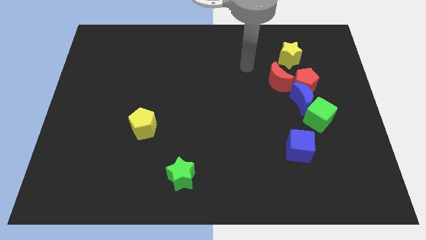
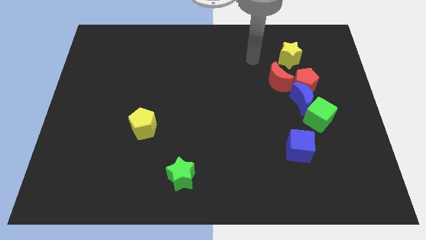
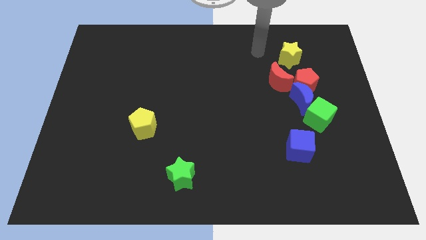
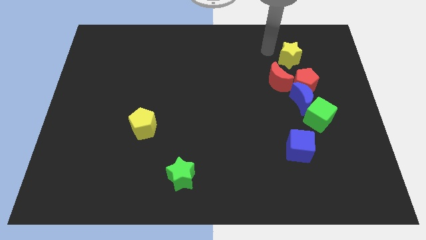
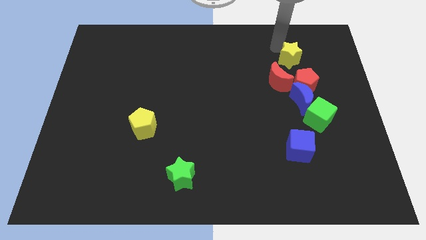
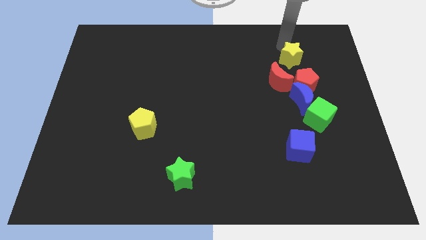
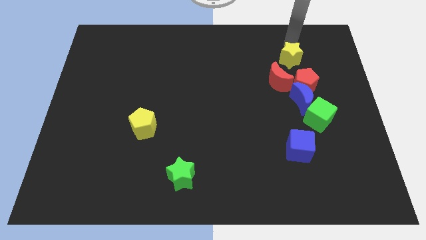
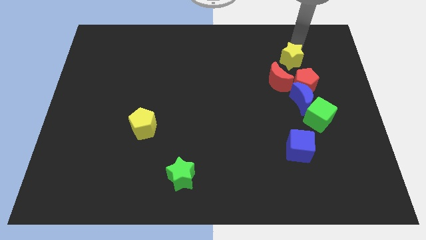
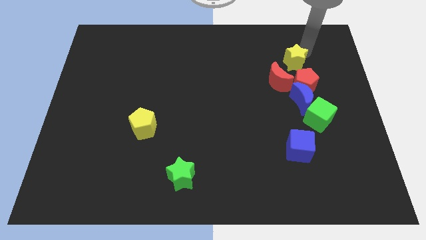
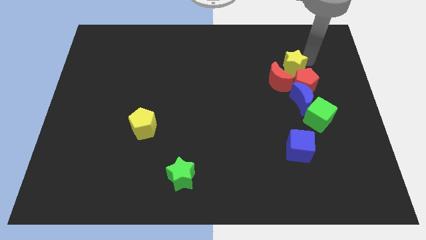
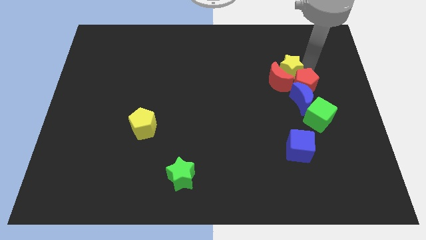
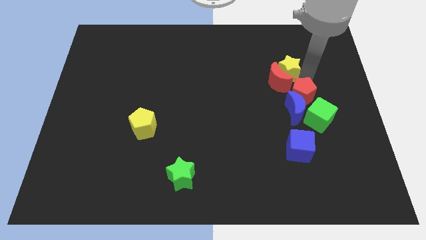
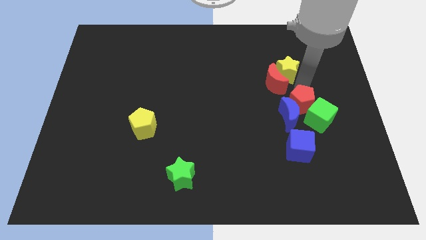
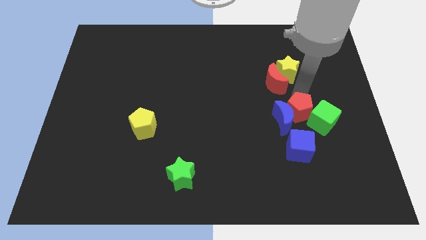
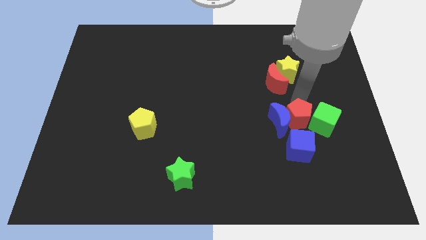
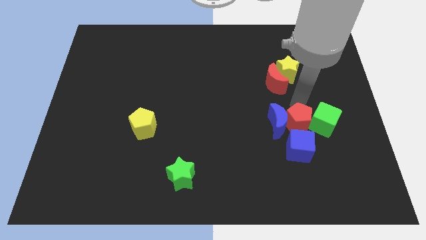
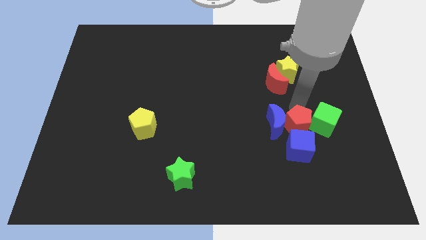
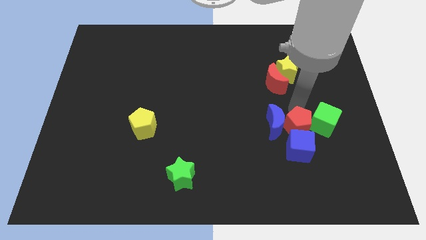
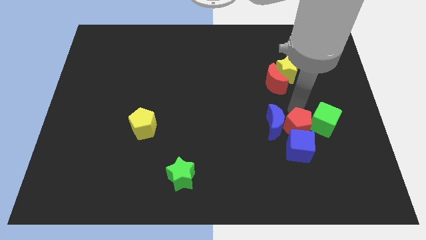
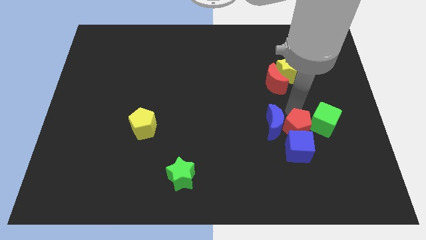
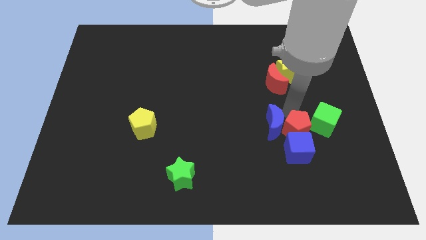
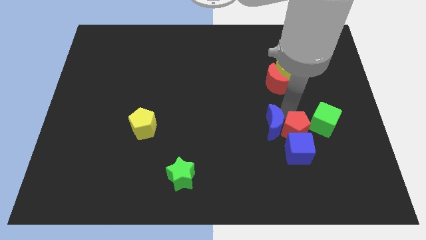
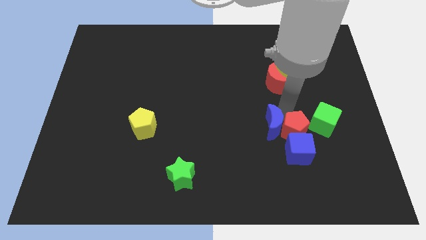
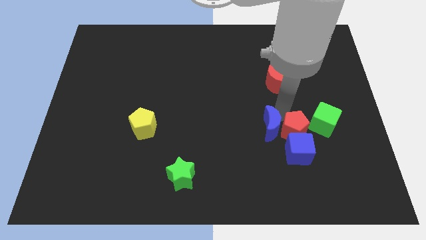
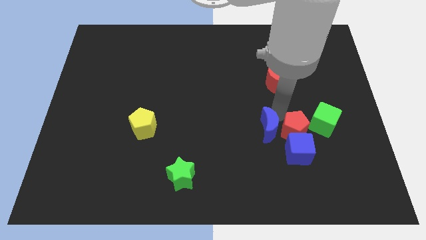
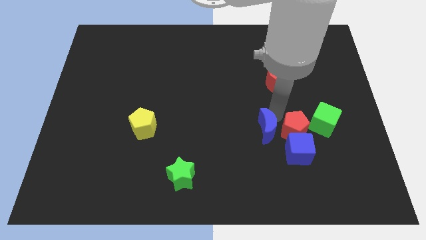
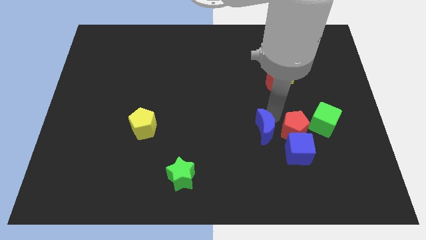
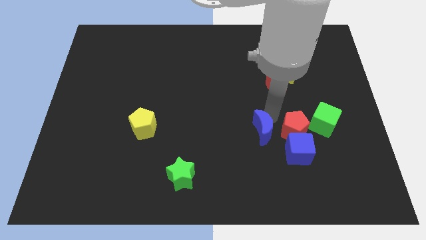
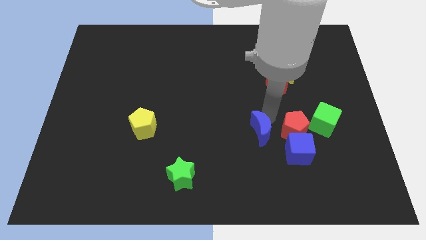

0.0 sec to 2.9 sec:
separate the blue moon from the group

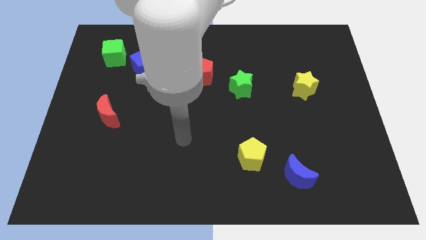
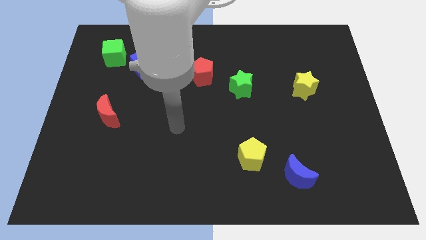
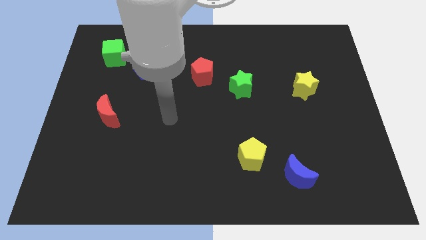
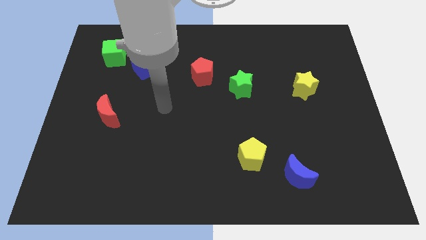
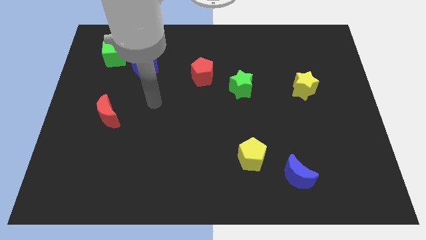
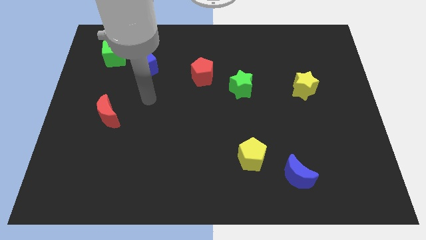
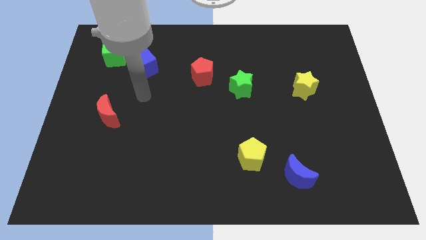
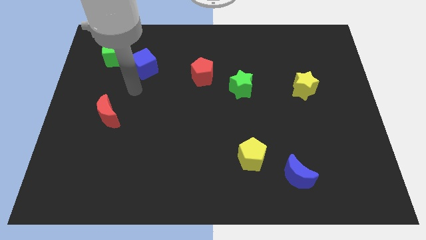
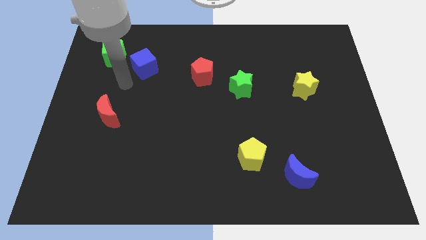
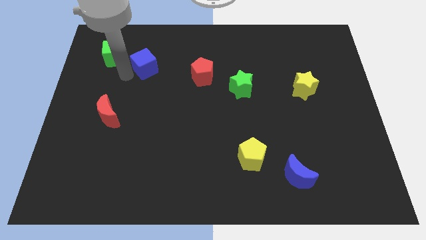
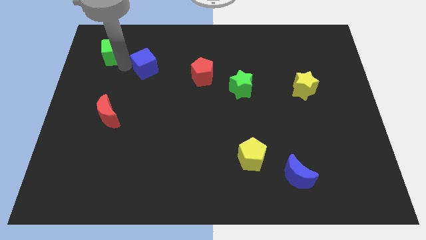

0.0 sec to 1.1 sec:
separate the blue cube from the green cube

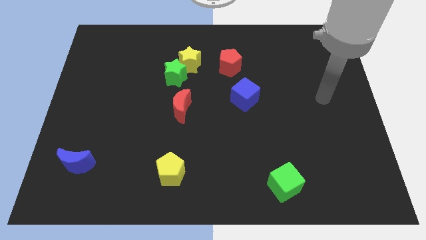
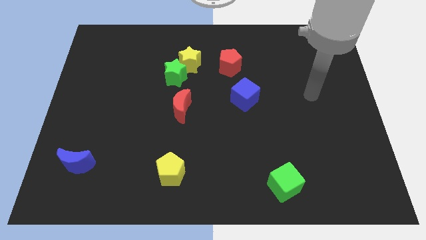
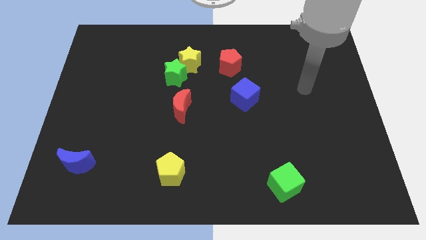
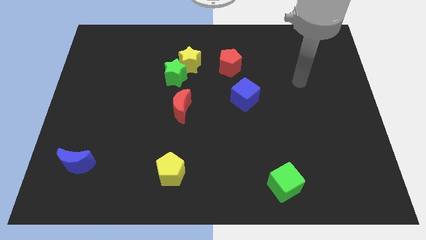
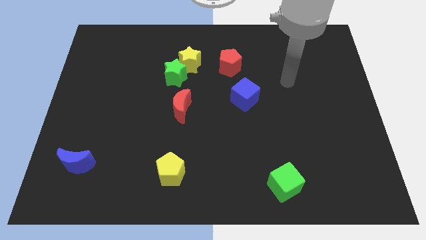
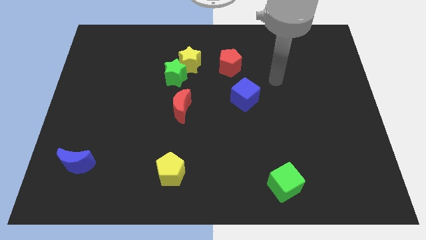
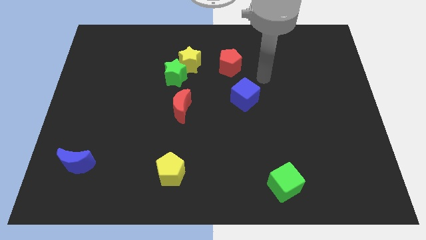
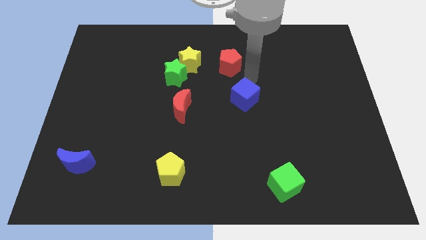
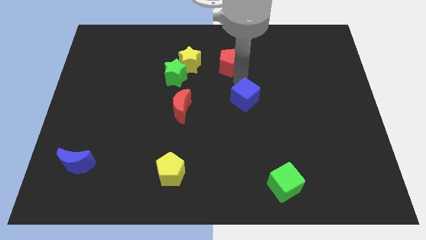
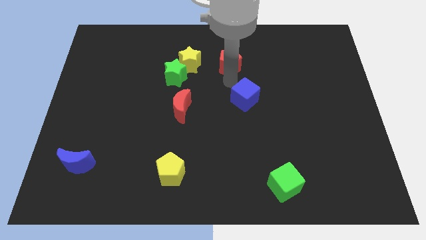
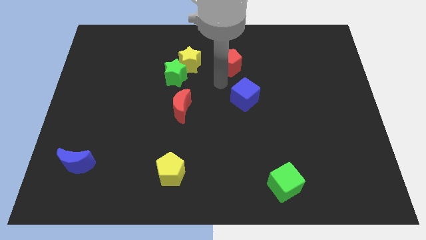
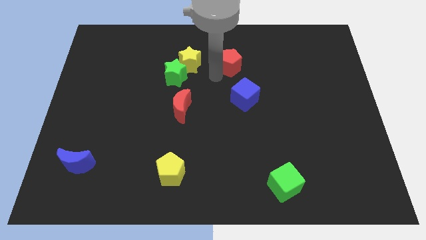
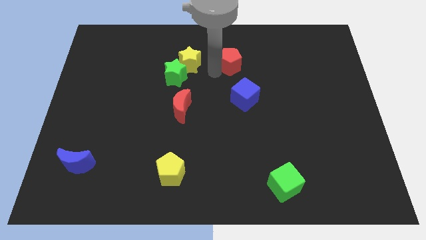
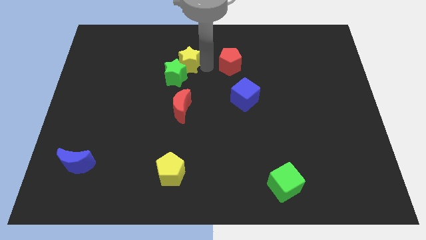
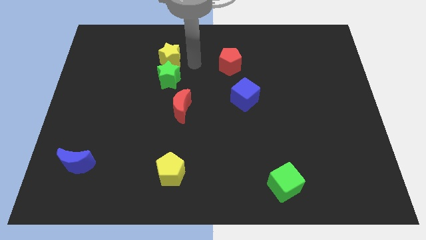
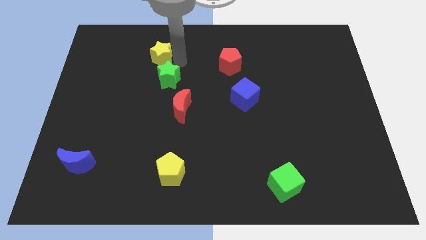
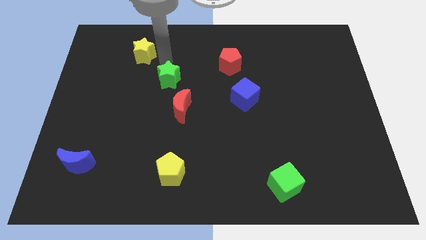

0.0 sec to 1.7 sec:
move the green star away from the yellow star

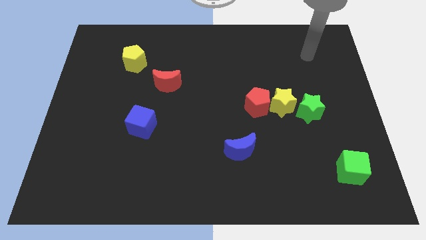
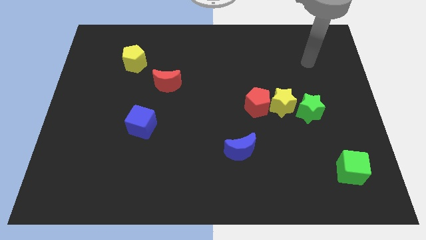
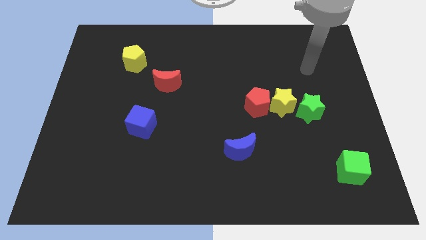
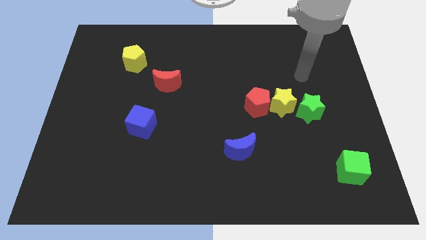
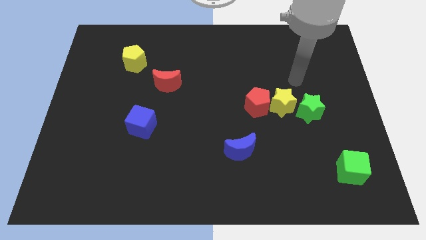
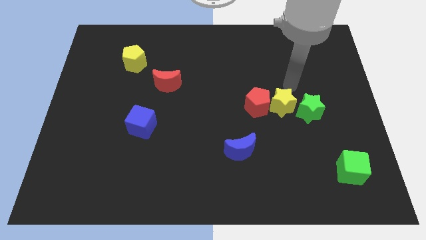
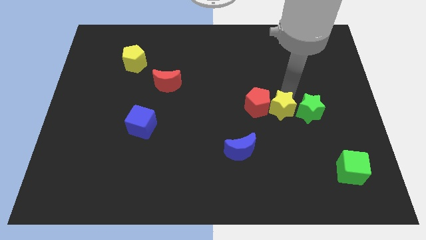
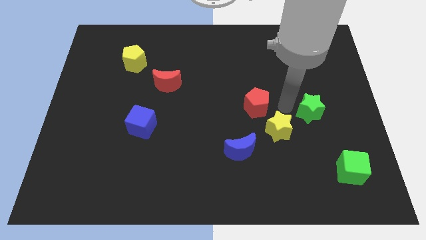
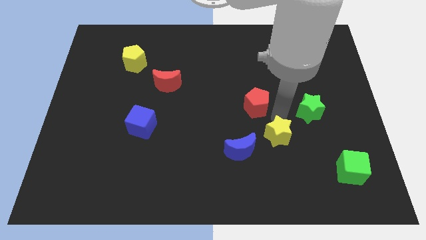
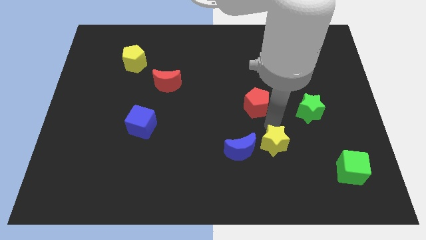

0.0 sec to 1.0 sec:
separate the red pentagon from the yellow star

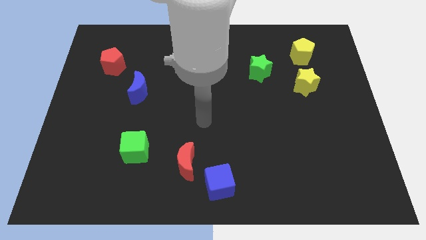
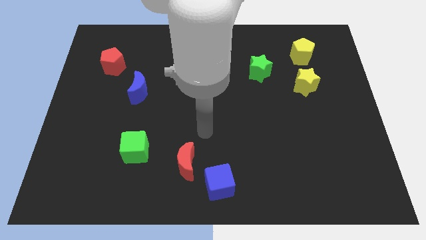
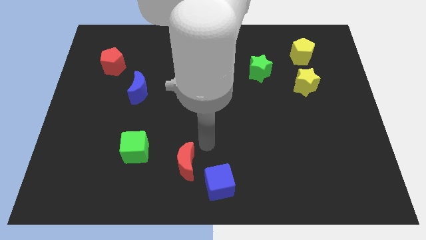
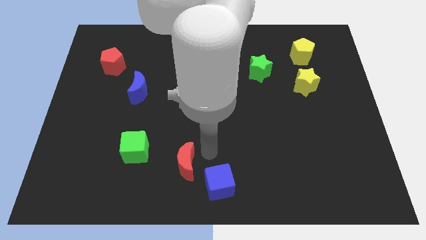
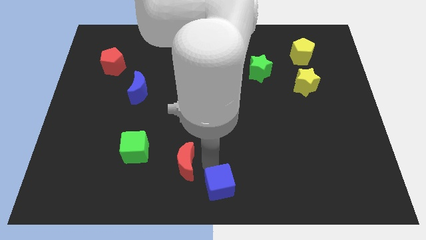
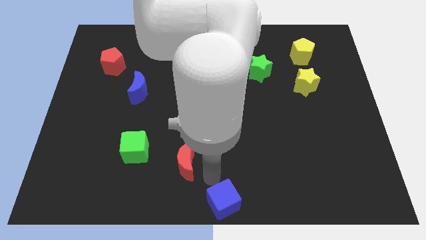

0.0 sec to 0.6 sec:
separate the red moon from the blue cube

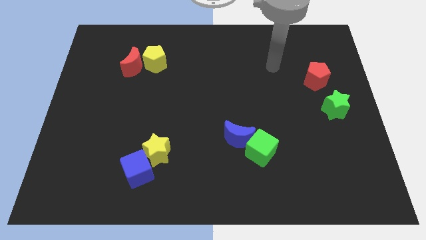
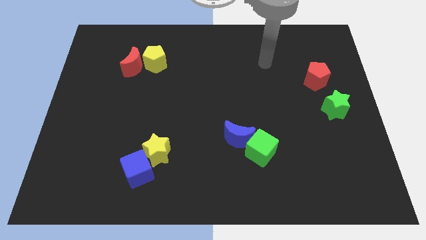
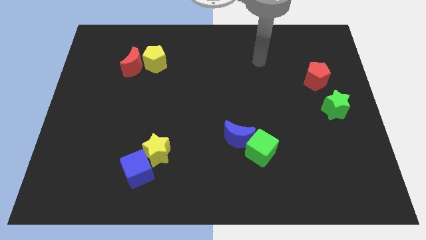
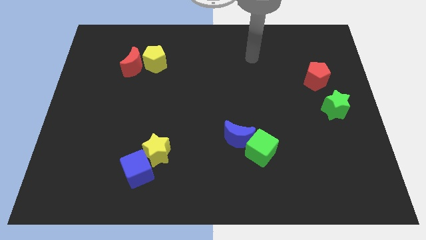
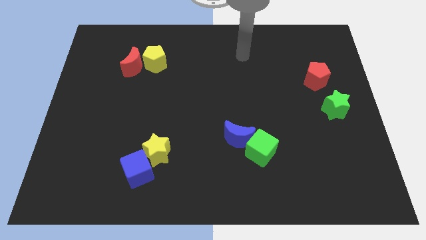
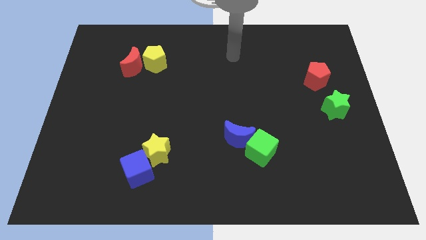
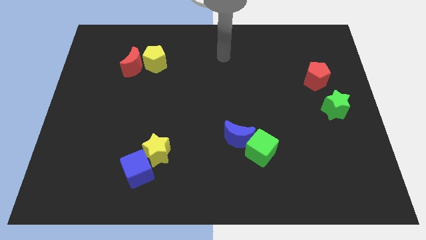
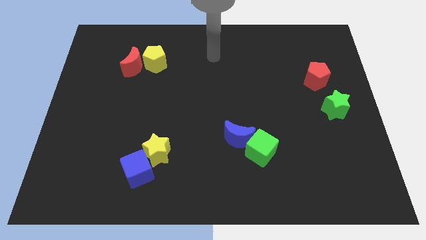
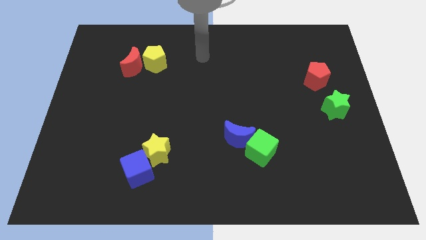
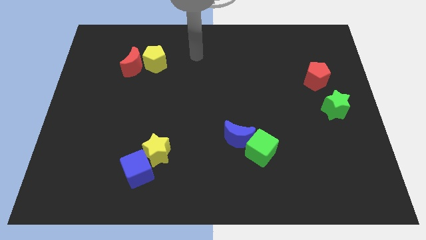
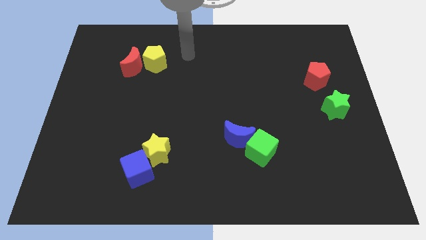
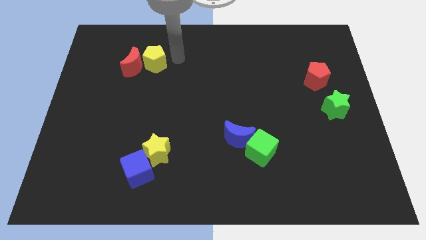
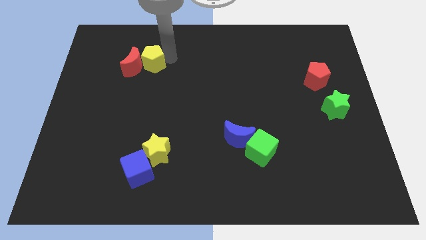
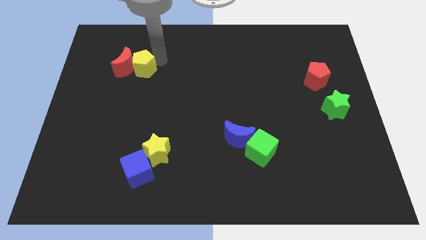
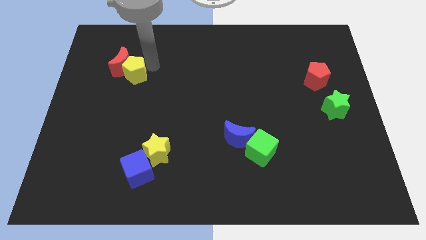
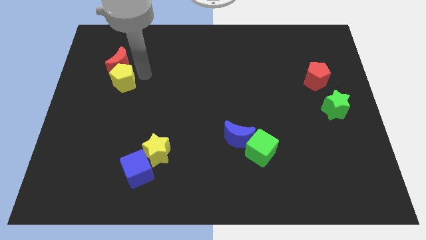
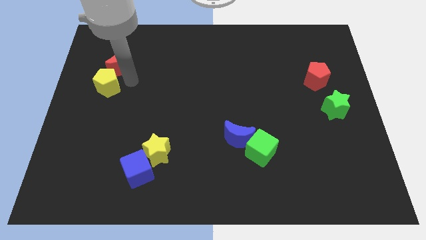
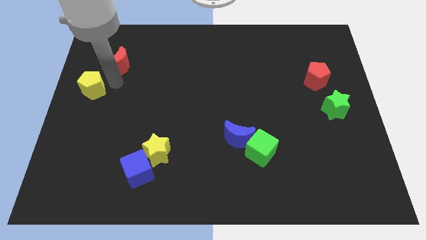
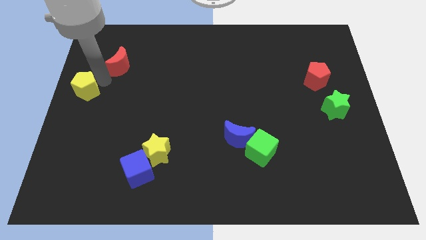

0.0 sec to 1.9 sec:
move the red moon away from the yellow pentagon
